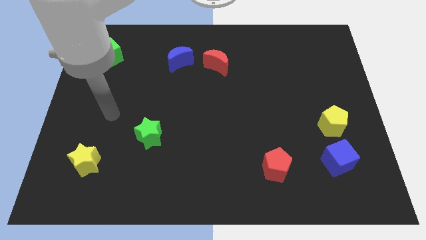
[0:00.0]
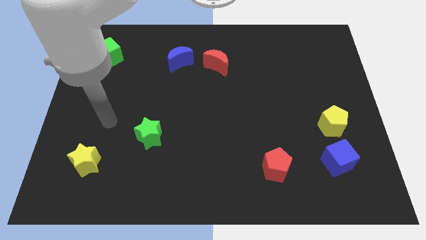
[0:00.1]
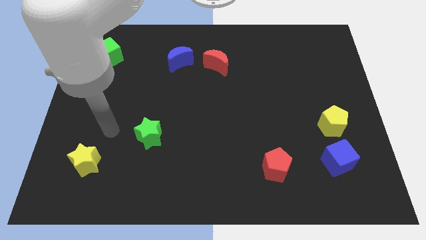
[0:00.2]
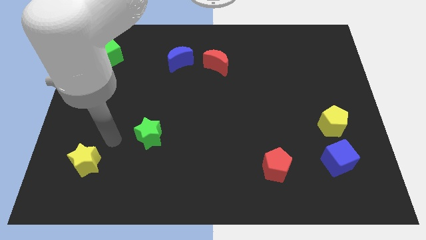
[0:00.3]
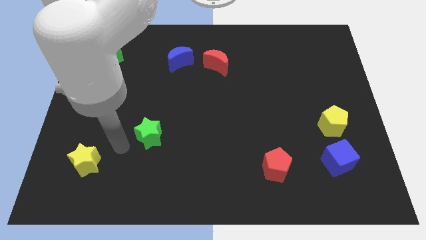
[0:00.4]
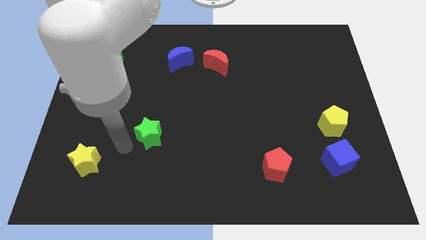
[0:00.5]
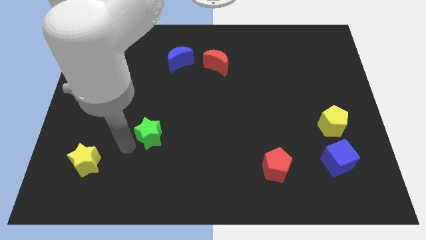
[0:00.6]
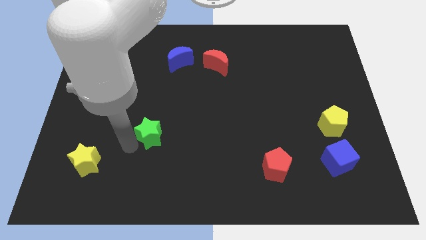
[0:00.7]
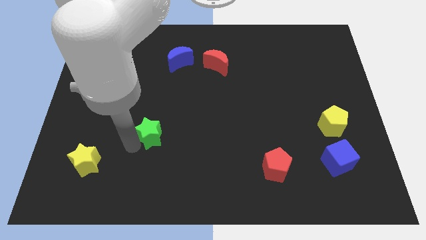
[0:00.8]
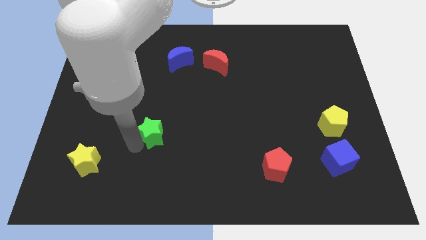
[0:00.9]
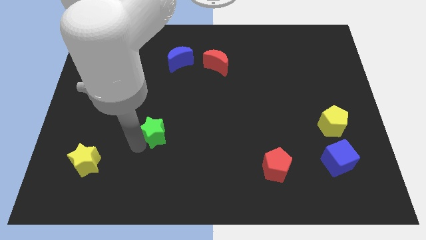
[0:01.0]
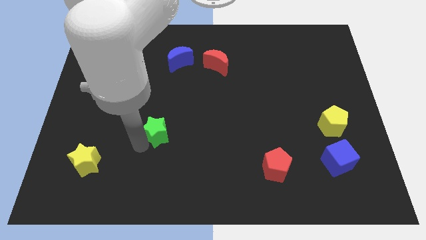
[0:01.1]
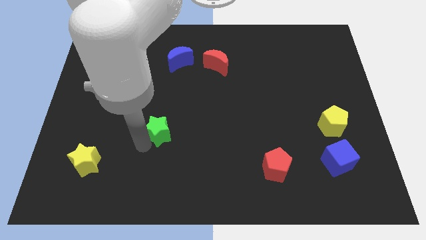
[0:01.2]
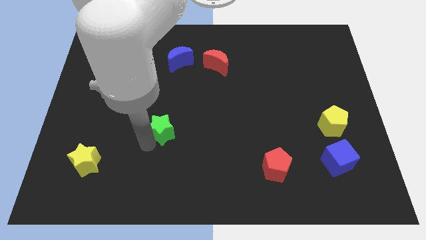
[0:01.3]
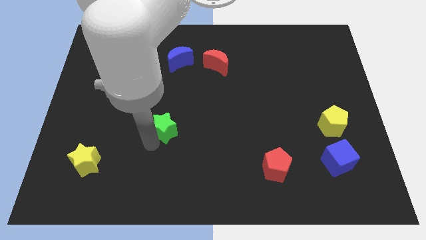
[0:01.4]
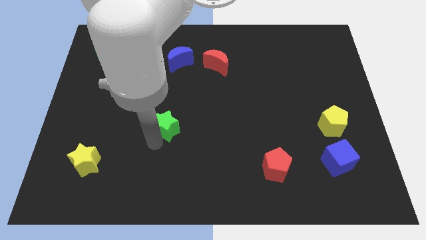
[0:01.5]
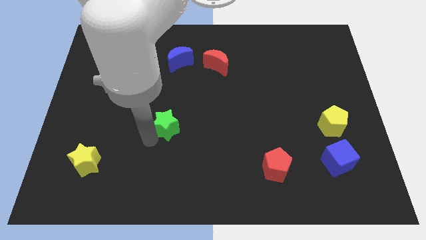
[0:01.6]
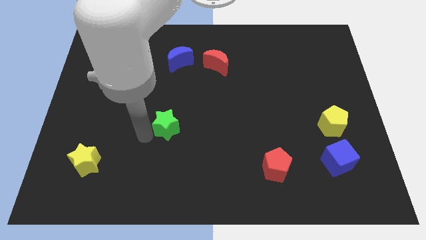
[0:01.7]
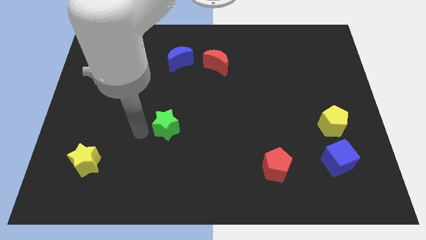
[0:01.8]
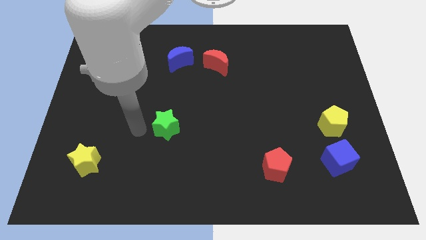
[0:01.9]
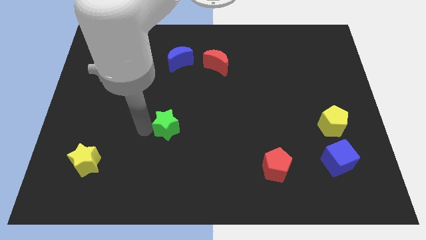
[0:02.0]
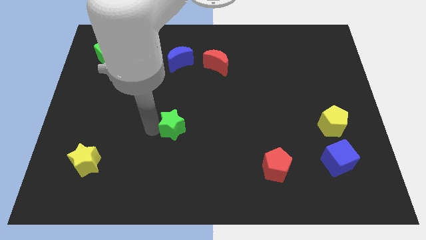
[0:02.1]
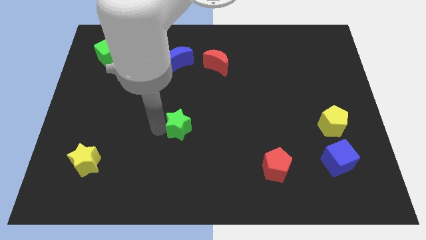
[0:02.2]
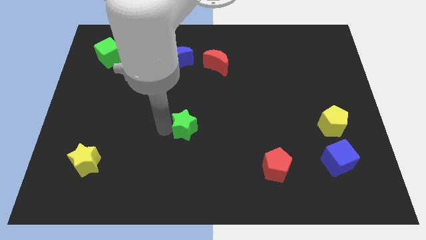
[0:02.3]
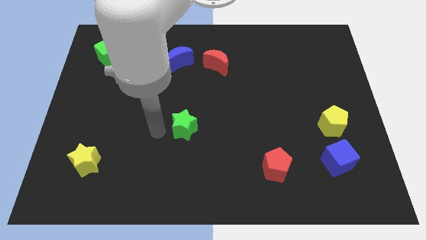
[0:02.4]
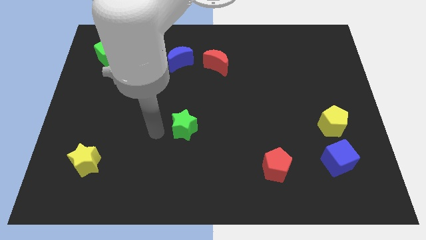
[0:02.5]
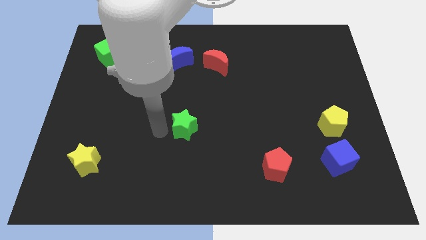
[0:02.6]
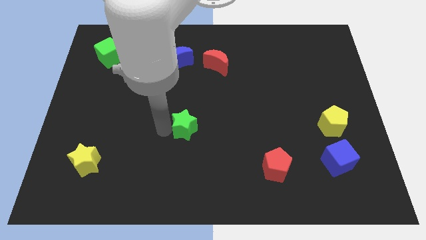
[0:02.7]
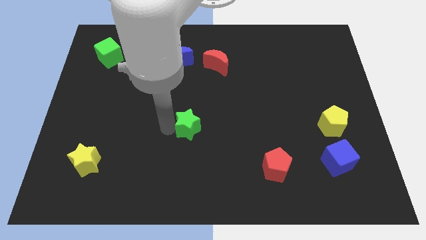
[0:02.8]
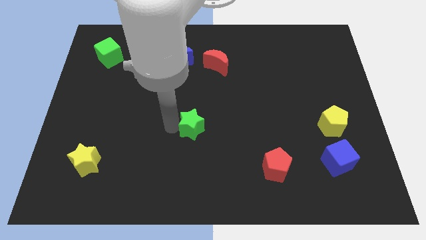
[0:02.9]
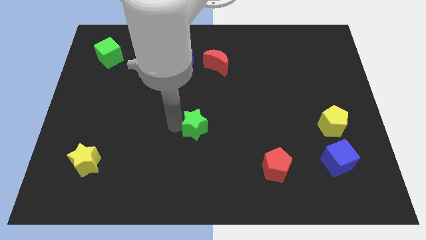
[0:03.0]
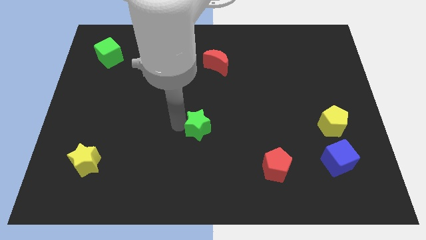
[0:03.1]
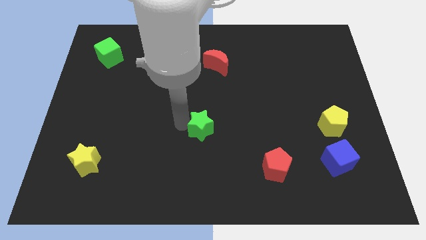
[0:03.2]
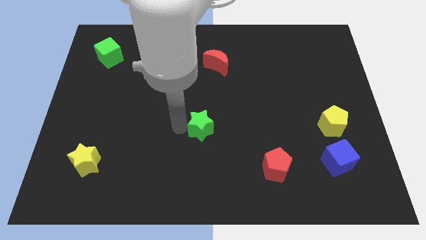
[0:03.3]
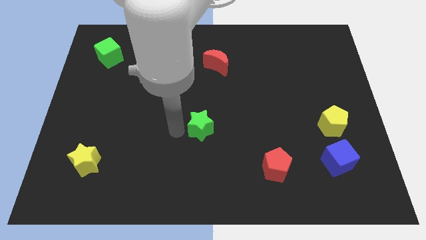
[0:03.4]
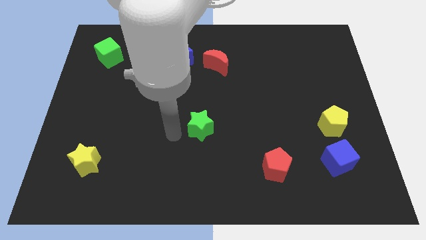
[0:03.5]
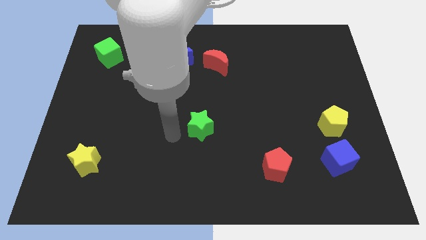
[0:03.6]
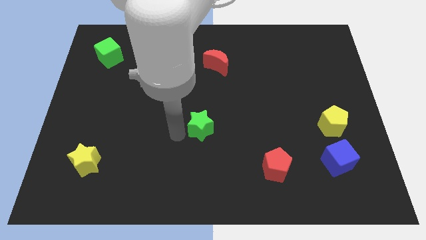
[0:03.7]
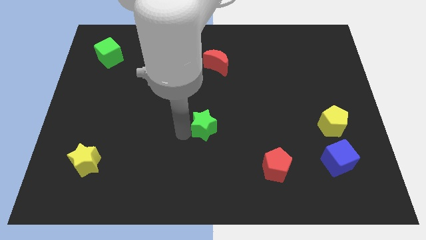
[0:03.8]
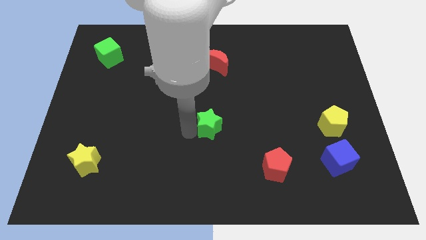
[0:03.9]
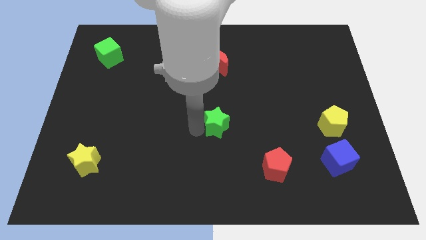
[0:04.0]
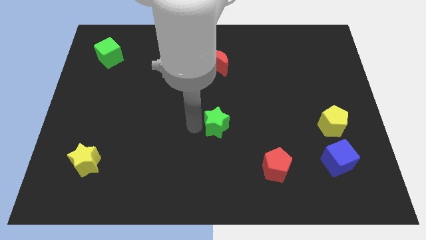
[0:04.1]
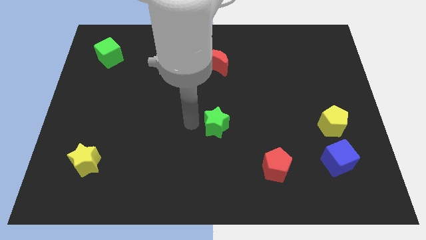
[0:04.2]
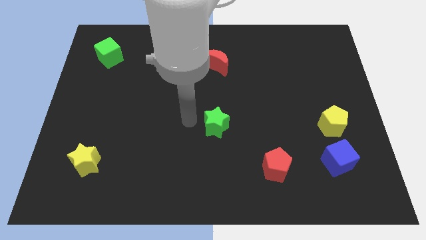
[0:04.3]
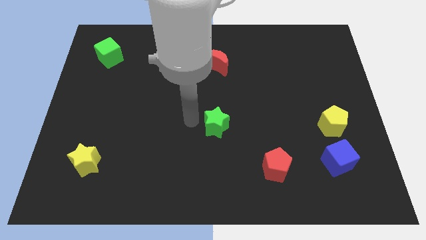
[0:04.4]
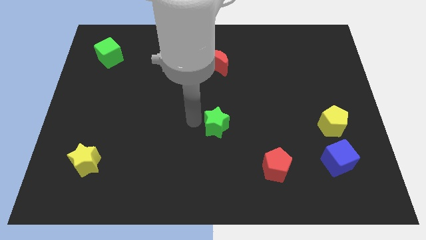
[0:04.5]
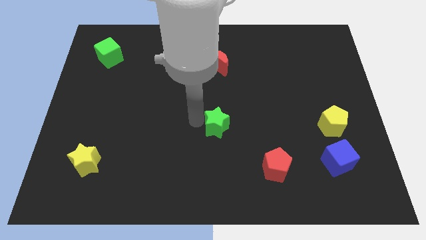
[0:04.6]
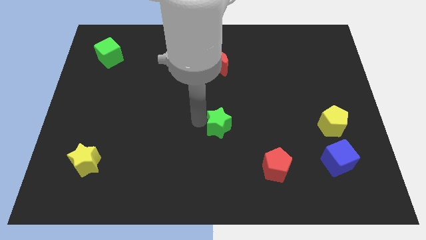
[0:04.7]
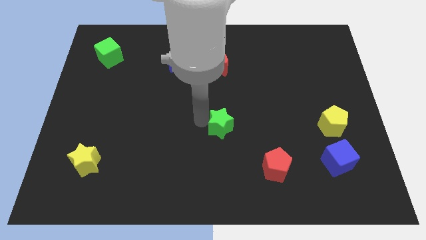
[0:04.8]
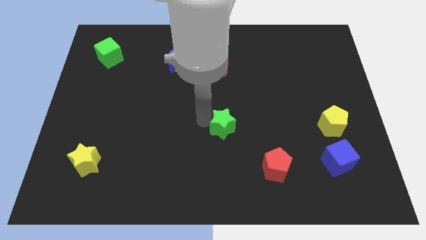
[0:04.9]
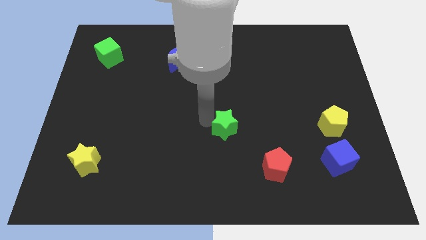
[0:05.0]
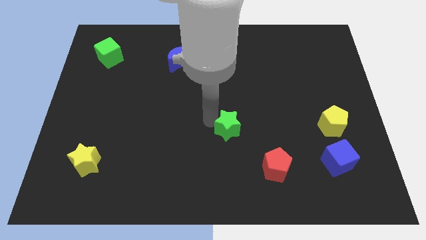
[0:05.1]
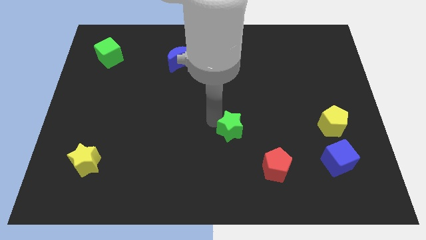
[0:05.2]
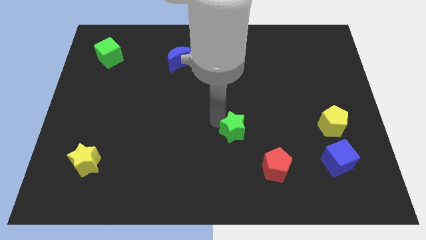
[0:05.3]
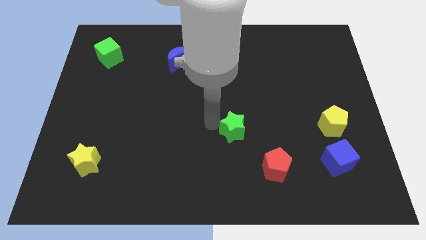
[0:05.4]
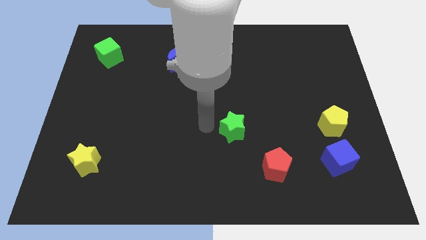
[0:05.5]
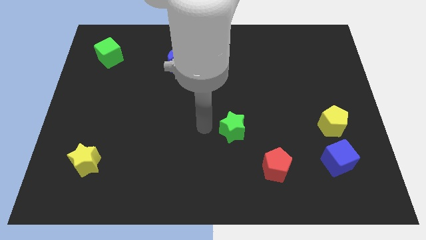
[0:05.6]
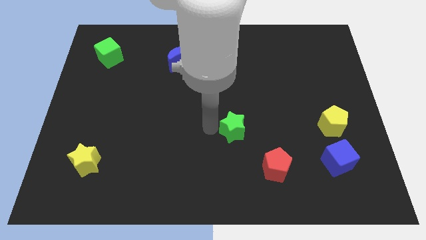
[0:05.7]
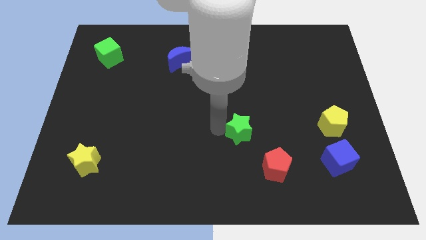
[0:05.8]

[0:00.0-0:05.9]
move the green star right

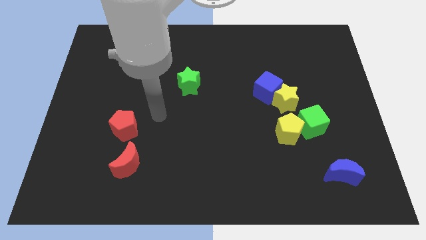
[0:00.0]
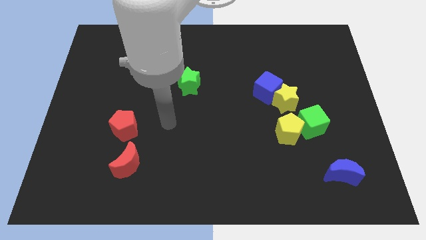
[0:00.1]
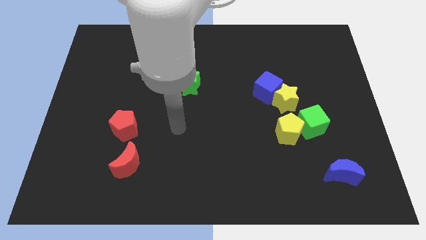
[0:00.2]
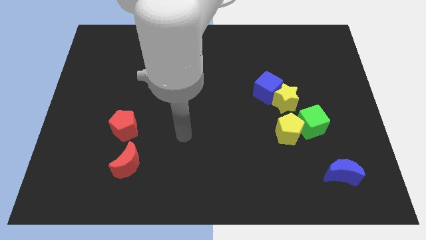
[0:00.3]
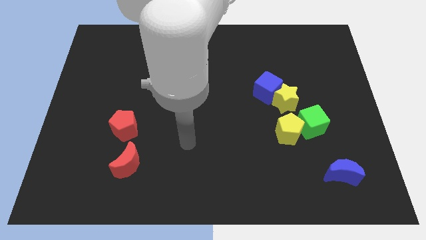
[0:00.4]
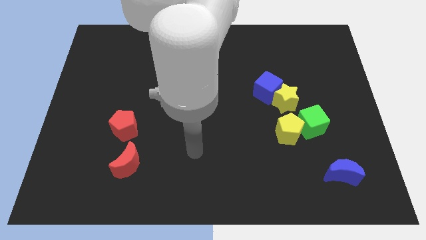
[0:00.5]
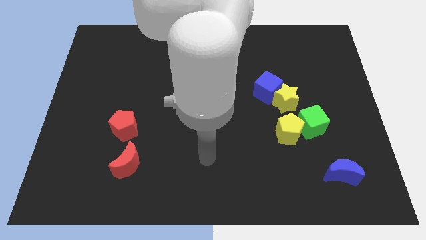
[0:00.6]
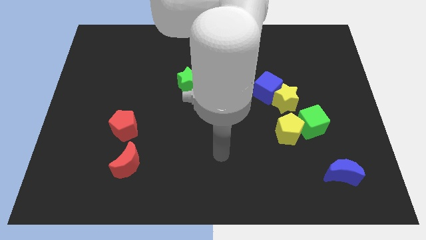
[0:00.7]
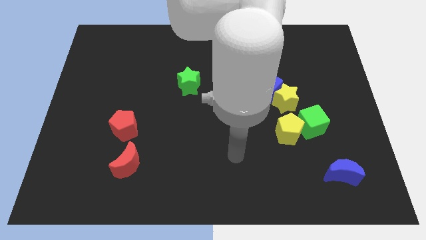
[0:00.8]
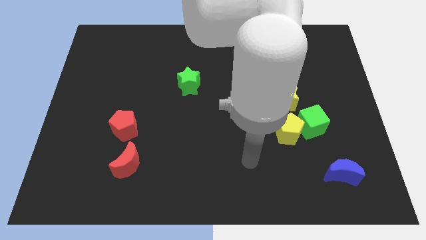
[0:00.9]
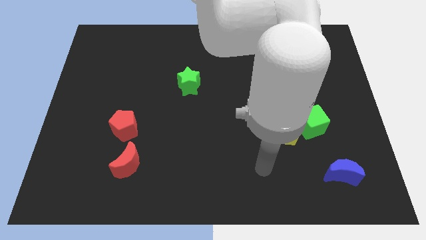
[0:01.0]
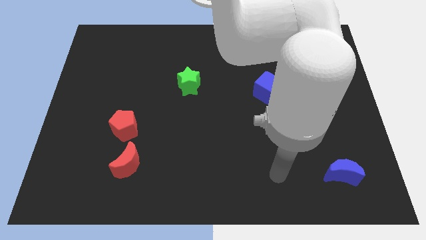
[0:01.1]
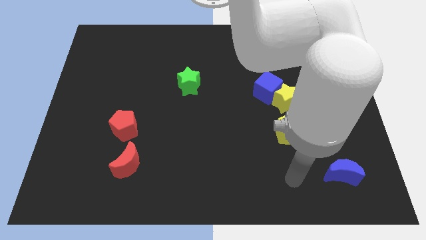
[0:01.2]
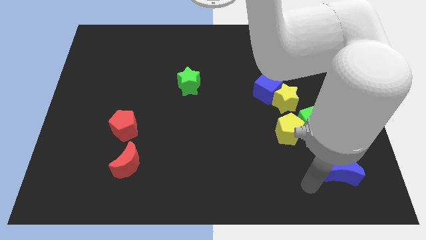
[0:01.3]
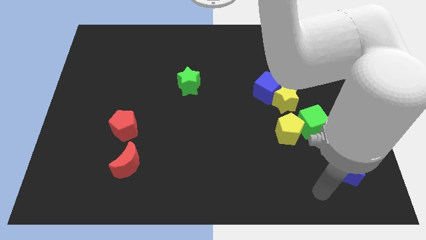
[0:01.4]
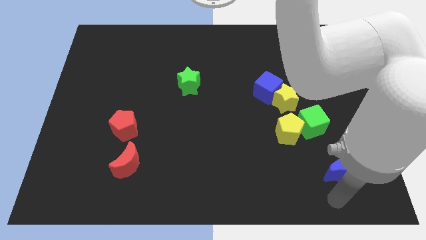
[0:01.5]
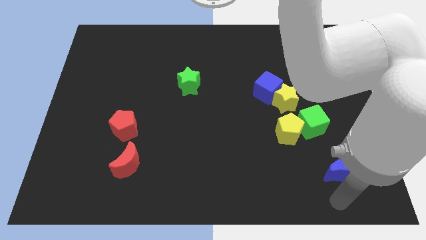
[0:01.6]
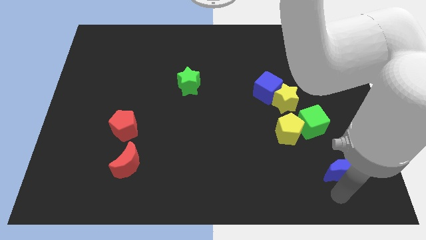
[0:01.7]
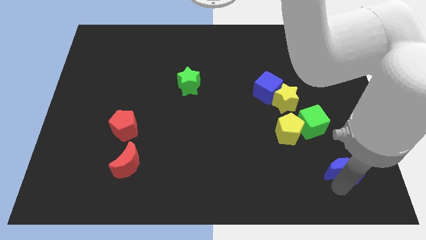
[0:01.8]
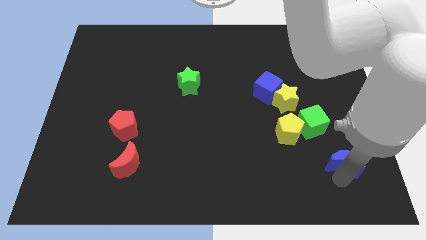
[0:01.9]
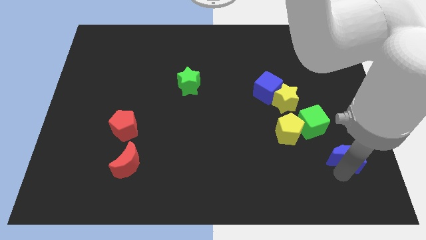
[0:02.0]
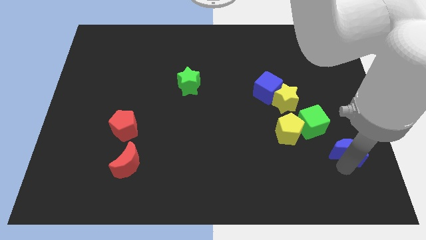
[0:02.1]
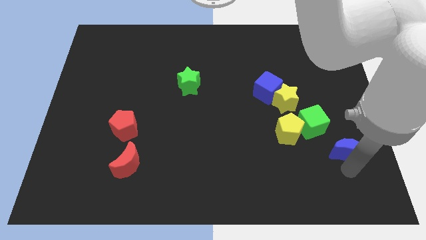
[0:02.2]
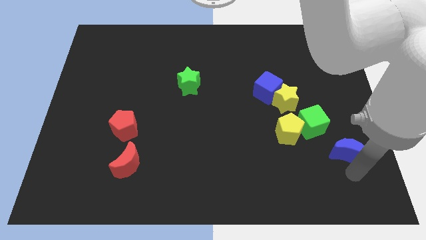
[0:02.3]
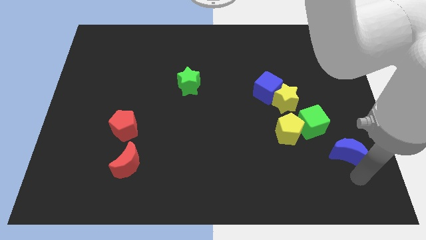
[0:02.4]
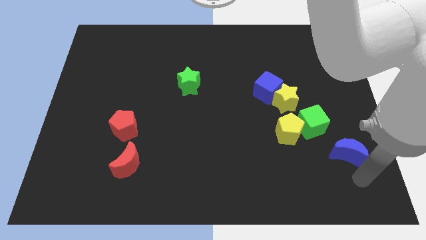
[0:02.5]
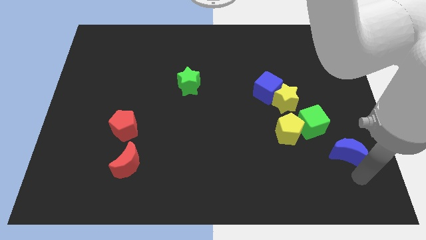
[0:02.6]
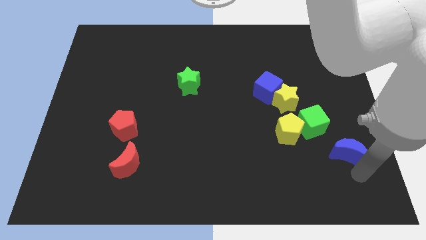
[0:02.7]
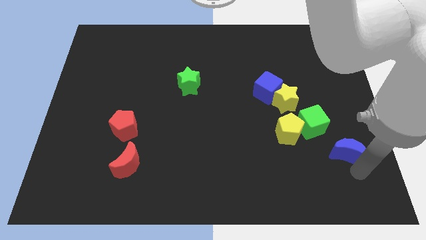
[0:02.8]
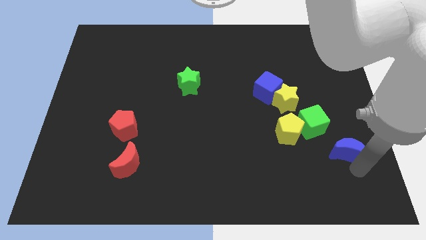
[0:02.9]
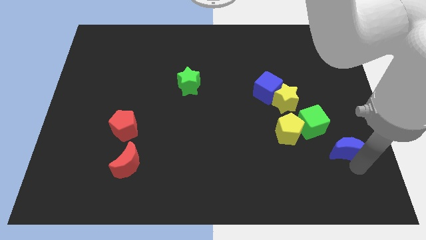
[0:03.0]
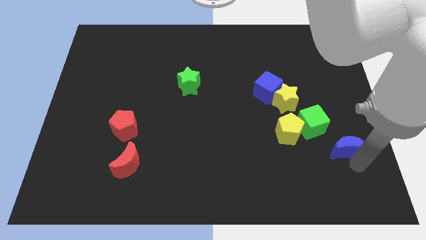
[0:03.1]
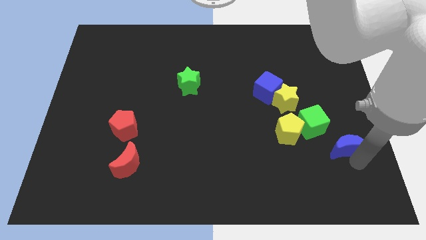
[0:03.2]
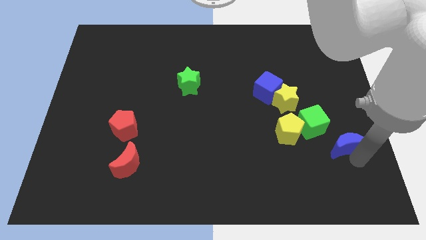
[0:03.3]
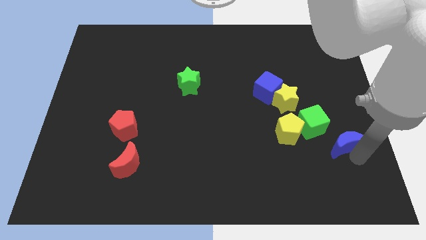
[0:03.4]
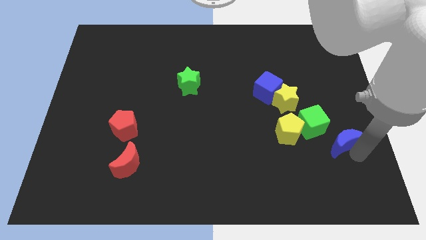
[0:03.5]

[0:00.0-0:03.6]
move the blue moon a bit up
